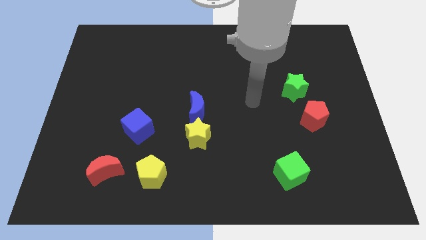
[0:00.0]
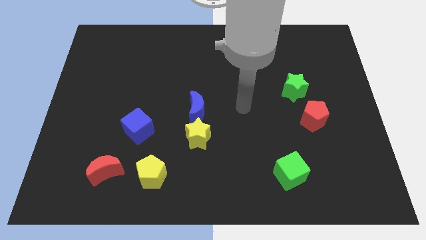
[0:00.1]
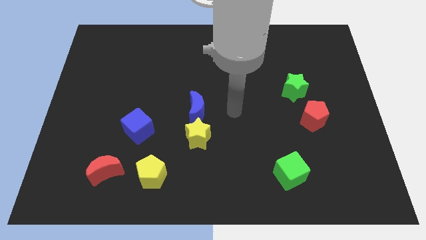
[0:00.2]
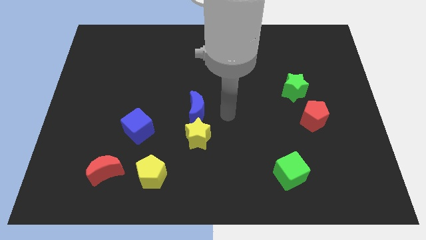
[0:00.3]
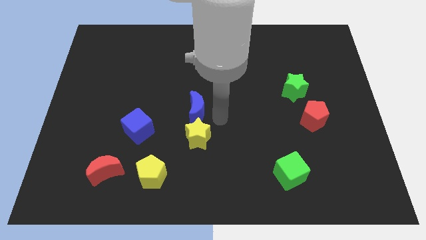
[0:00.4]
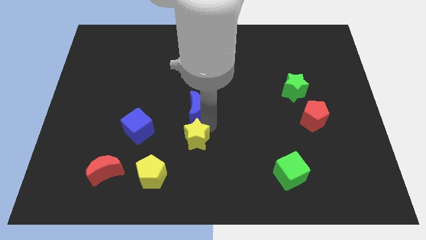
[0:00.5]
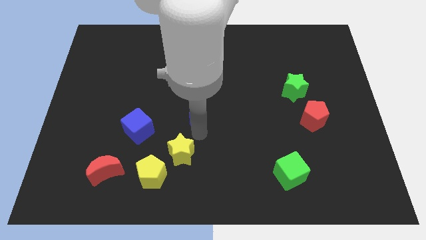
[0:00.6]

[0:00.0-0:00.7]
pull the blue moon apart from the yellow star

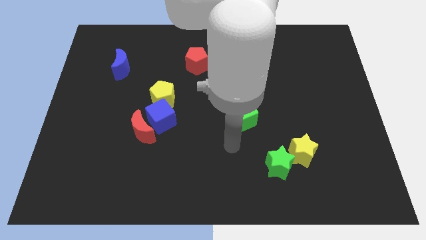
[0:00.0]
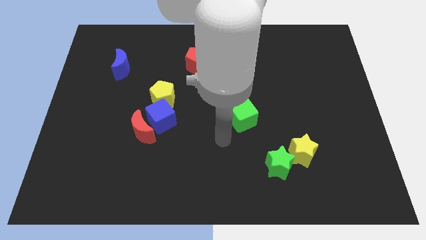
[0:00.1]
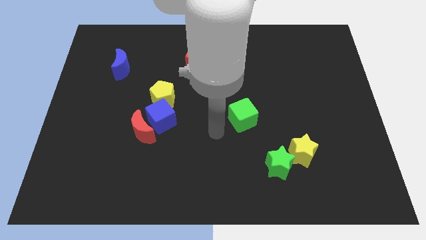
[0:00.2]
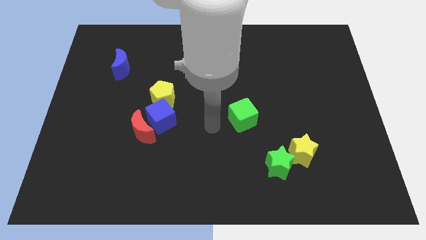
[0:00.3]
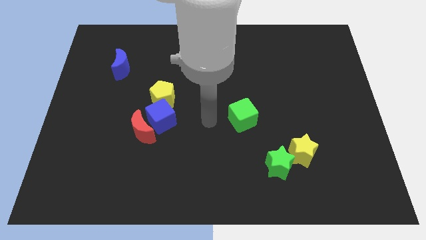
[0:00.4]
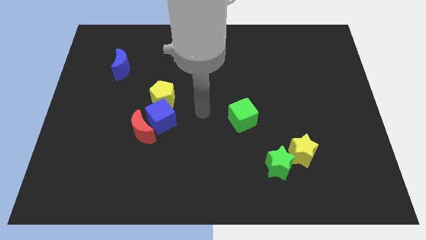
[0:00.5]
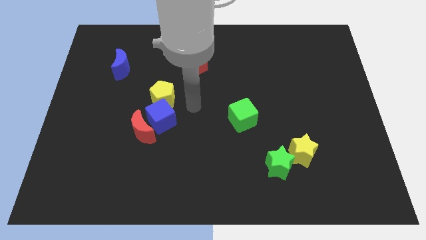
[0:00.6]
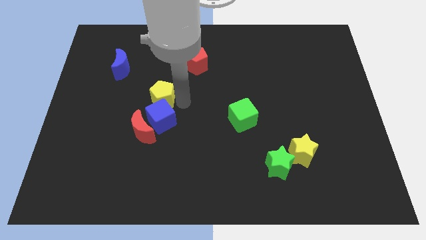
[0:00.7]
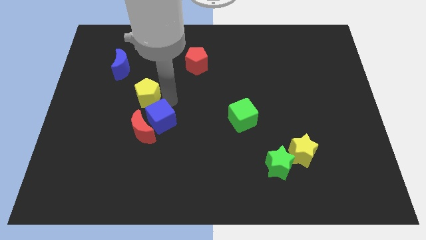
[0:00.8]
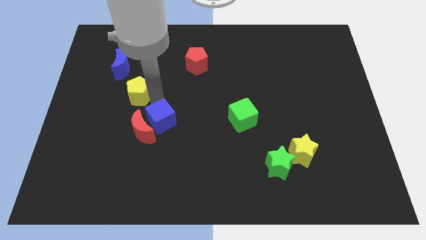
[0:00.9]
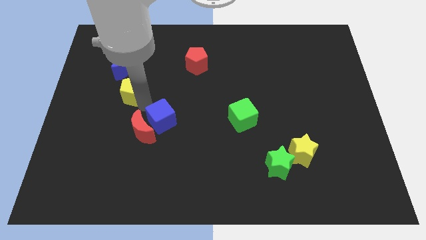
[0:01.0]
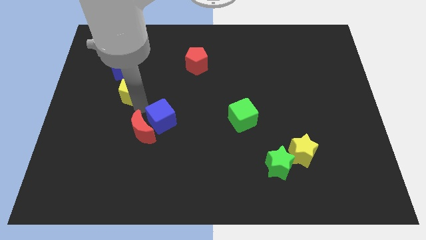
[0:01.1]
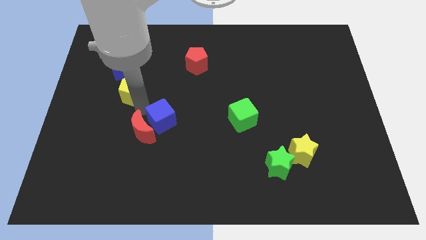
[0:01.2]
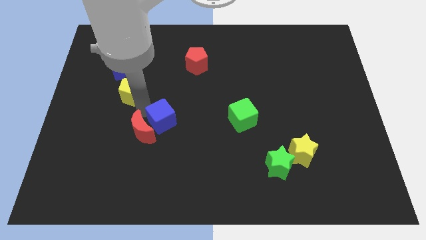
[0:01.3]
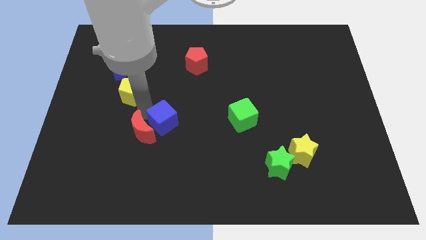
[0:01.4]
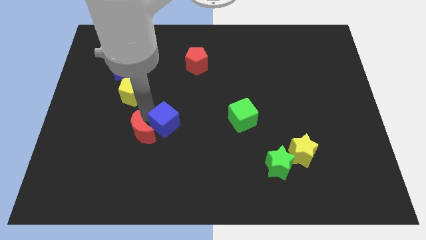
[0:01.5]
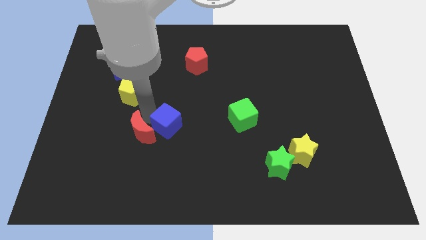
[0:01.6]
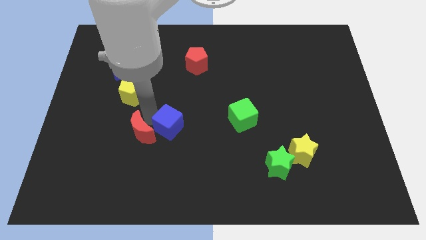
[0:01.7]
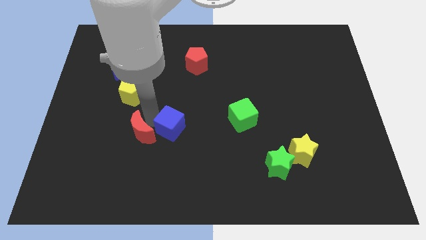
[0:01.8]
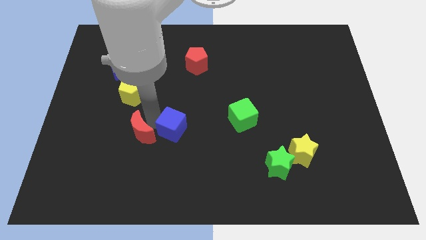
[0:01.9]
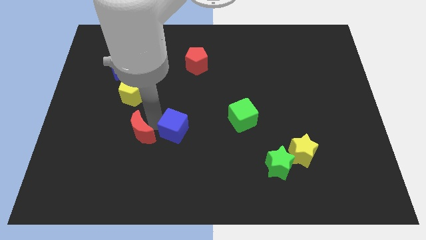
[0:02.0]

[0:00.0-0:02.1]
separate the blue cube from the red moon and yellow pentagon

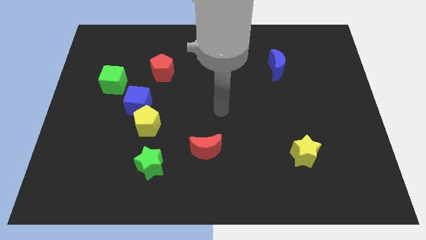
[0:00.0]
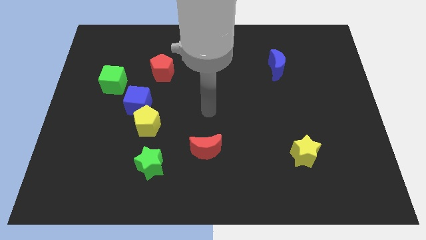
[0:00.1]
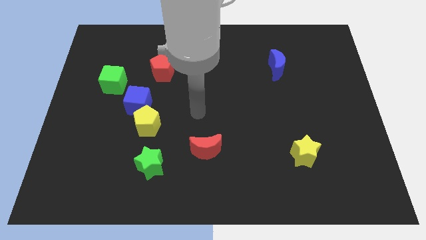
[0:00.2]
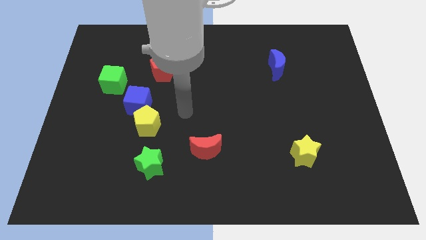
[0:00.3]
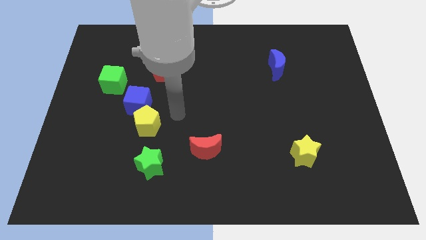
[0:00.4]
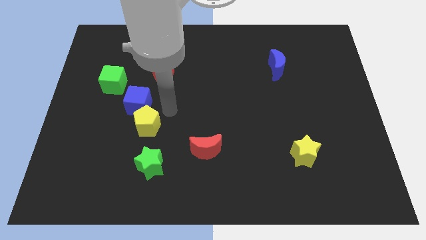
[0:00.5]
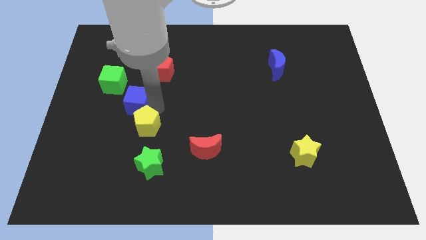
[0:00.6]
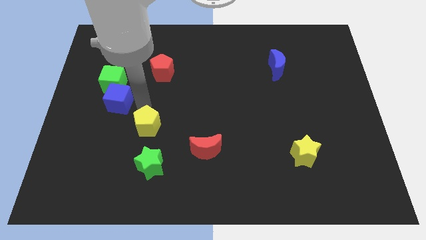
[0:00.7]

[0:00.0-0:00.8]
separate the yellow pentagon from the blue cube

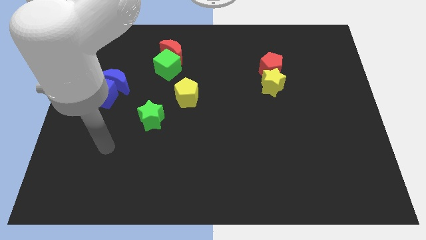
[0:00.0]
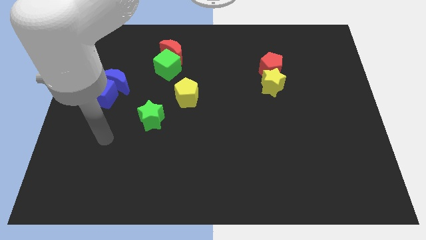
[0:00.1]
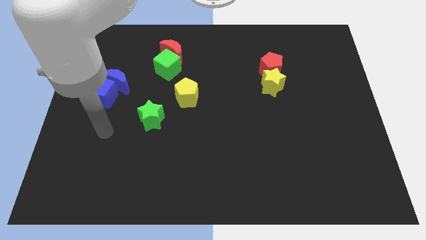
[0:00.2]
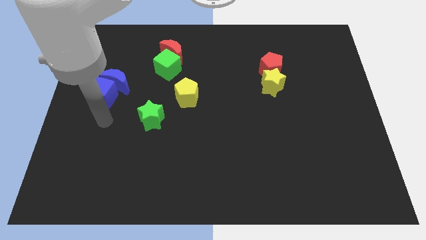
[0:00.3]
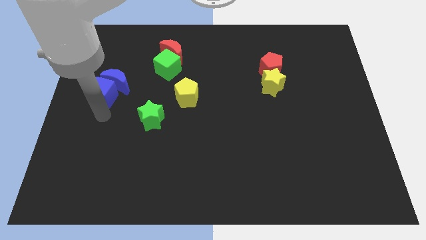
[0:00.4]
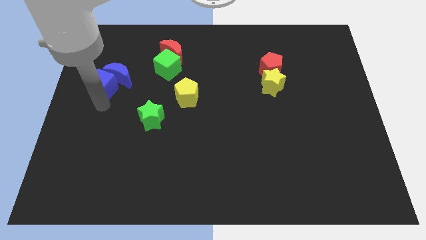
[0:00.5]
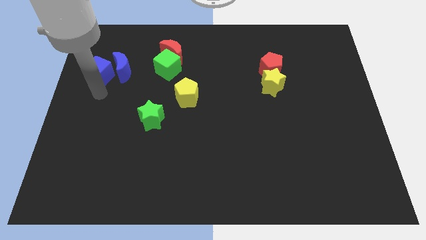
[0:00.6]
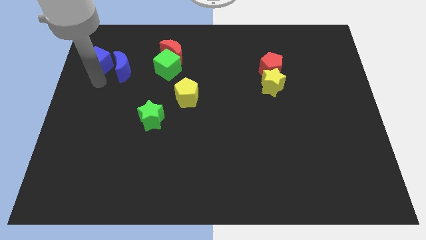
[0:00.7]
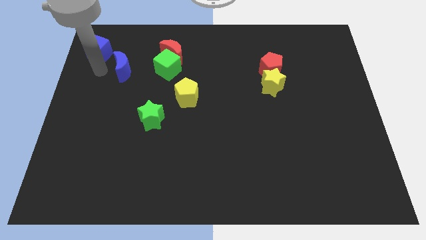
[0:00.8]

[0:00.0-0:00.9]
pull the blue moon apart from the blue cube

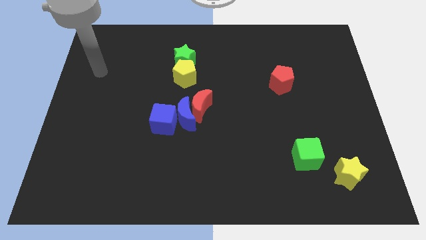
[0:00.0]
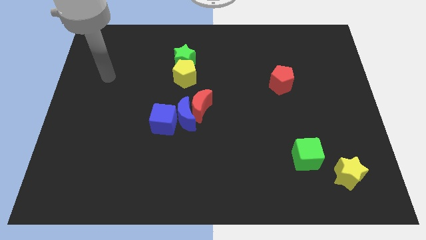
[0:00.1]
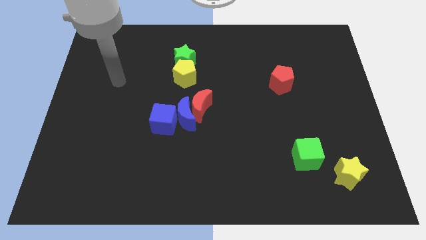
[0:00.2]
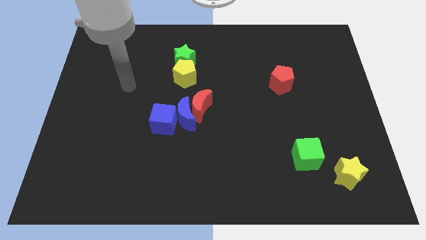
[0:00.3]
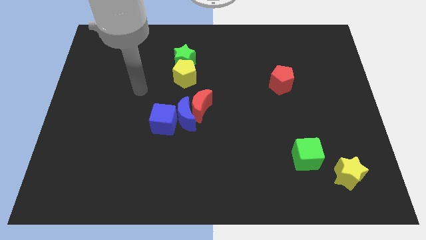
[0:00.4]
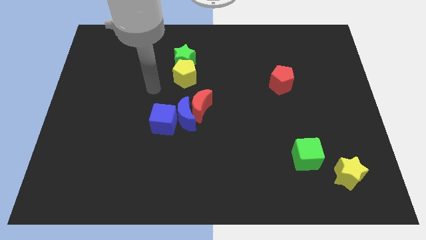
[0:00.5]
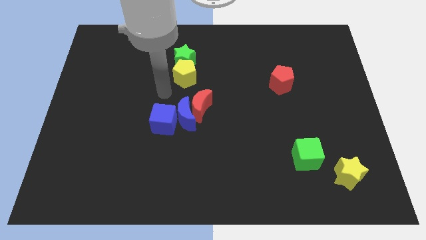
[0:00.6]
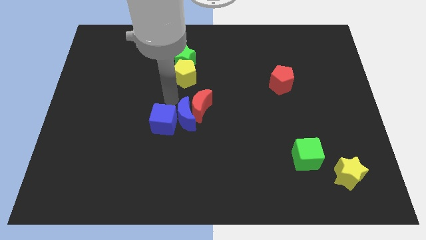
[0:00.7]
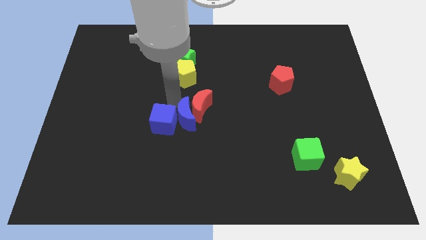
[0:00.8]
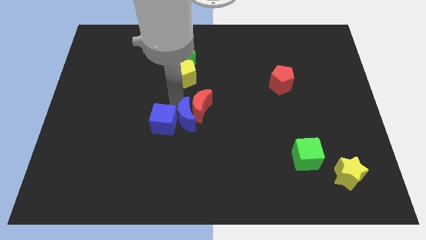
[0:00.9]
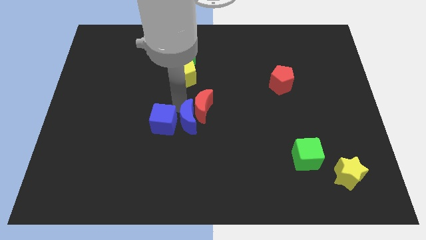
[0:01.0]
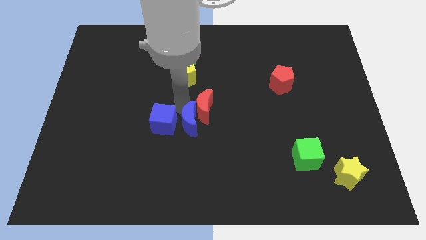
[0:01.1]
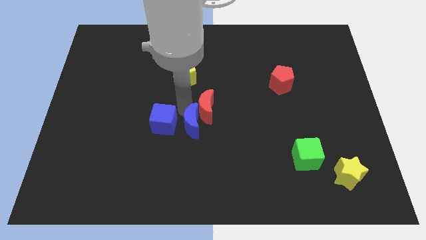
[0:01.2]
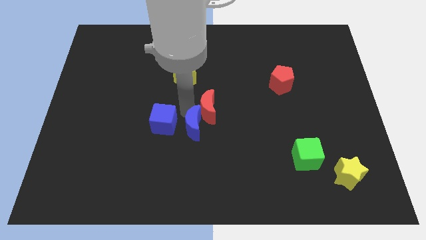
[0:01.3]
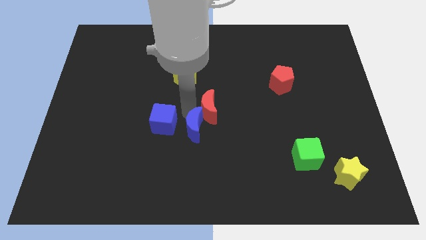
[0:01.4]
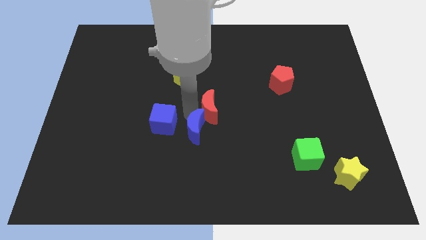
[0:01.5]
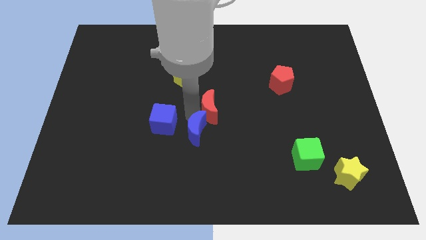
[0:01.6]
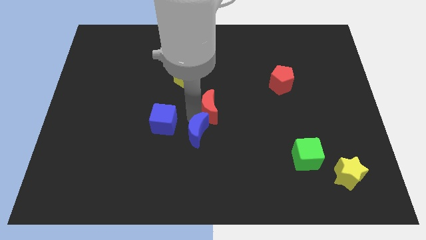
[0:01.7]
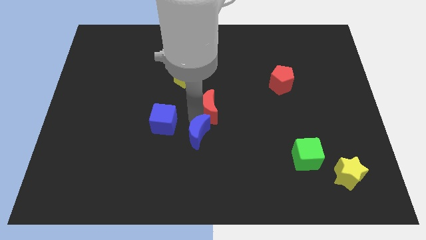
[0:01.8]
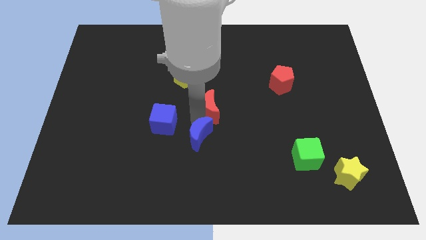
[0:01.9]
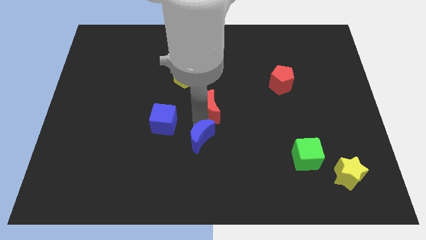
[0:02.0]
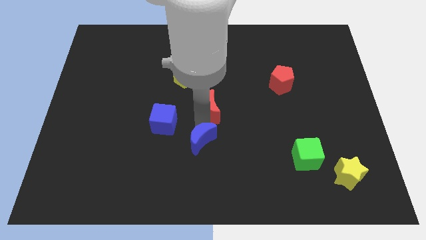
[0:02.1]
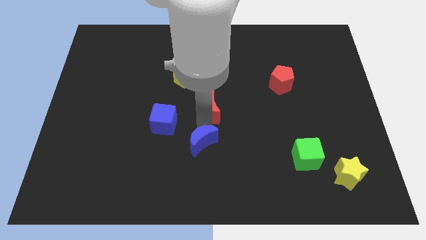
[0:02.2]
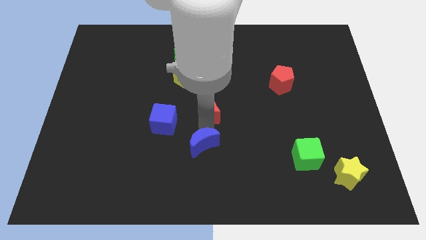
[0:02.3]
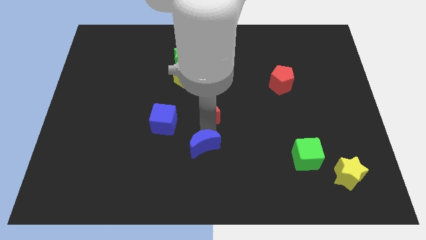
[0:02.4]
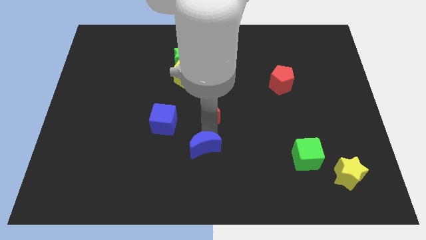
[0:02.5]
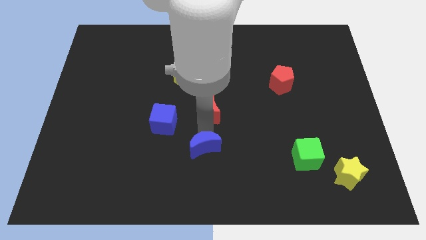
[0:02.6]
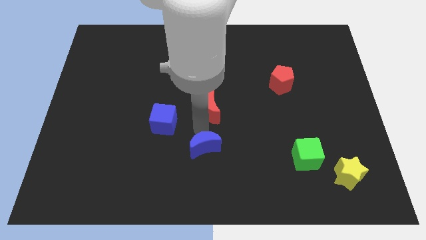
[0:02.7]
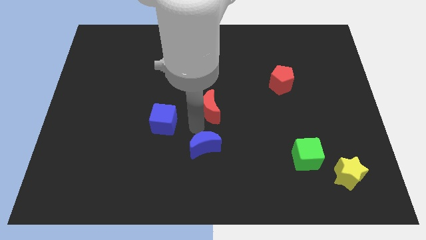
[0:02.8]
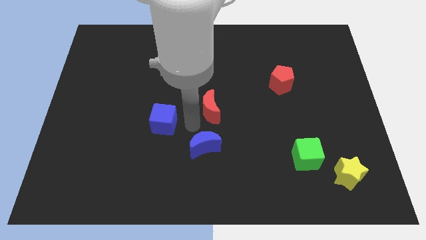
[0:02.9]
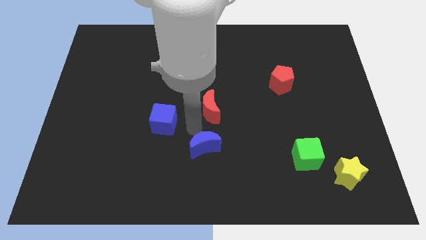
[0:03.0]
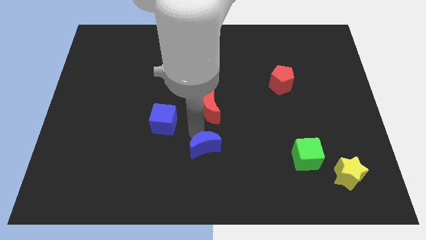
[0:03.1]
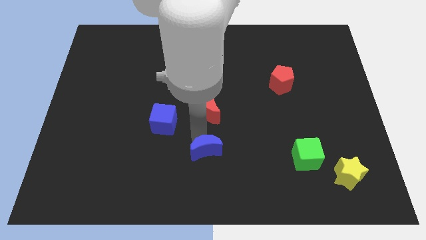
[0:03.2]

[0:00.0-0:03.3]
pull the blue moon apart from the red moon and blue cube

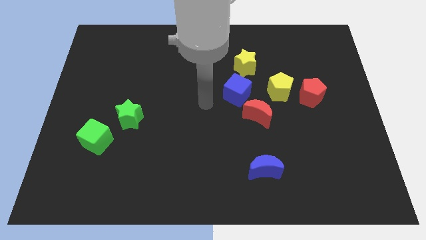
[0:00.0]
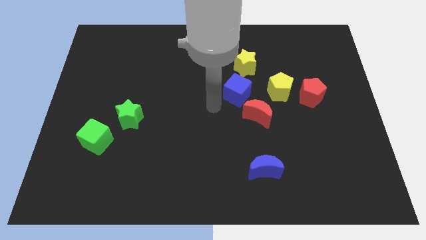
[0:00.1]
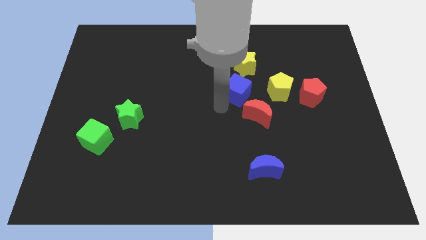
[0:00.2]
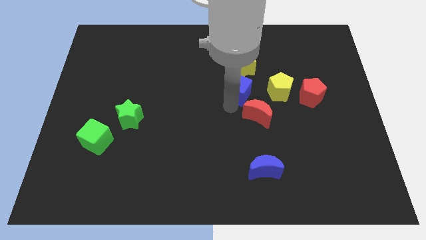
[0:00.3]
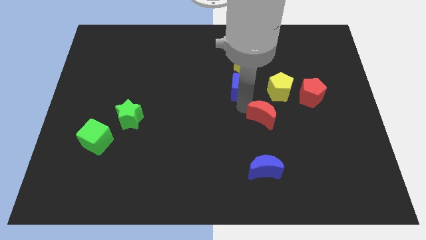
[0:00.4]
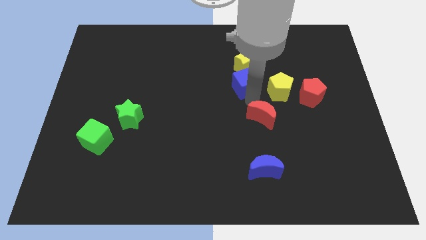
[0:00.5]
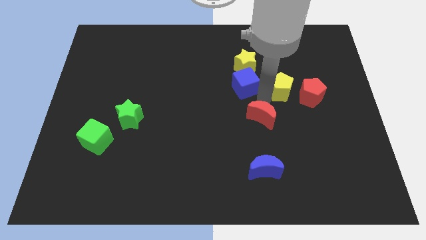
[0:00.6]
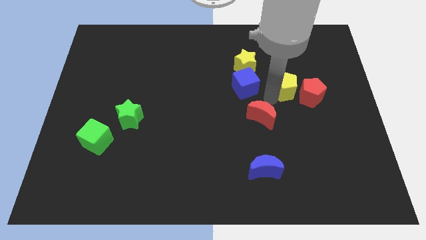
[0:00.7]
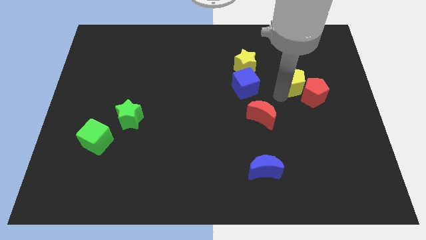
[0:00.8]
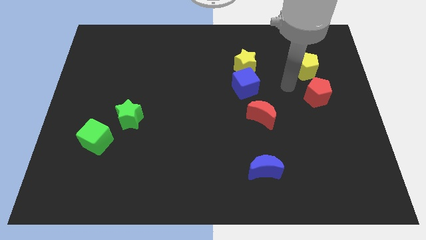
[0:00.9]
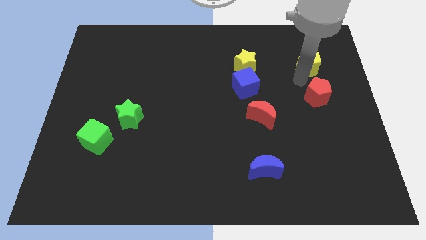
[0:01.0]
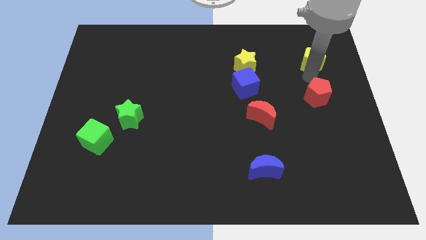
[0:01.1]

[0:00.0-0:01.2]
separate the red pentagon from the yellow pentagon

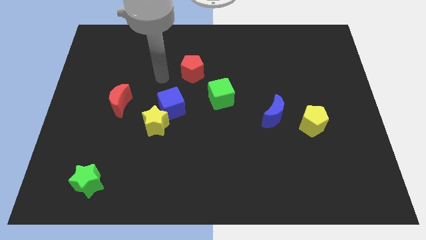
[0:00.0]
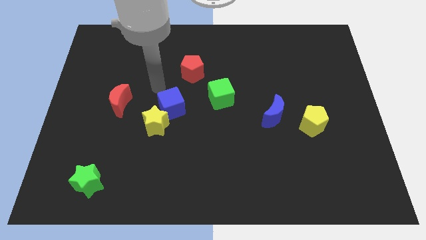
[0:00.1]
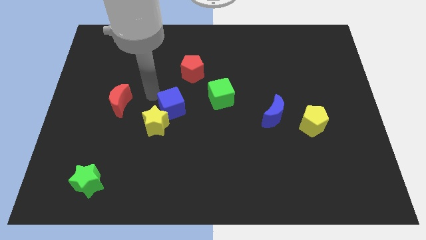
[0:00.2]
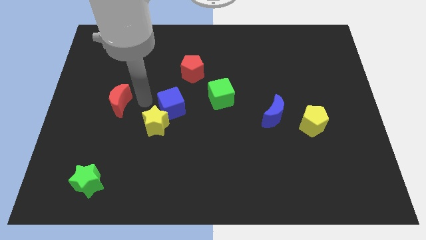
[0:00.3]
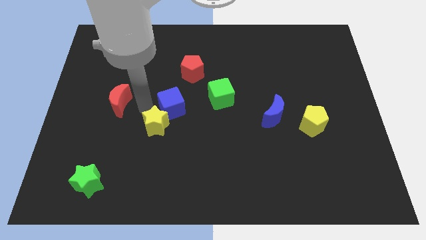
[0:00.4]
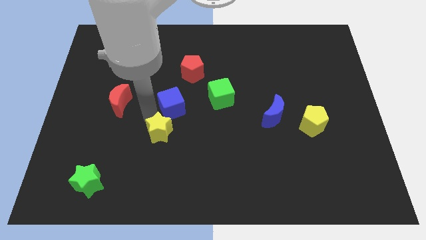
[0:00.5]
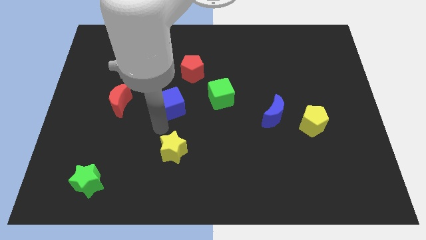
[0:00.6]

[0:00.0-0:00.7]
move the blue cube away from the yellow star
